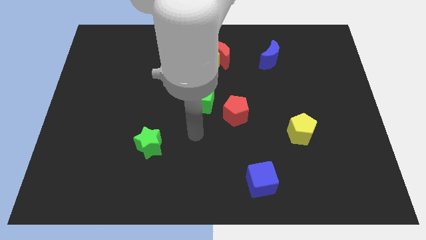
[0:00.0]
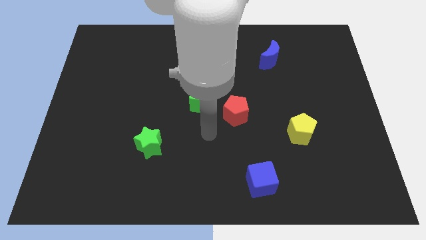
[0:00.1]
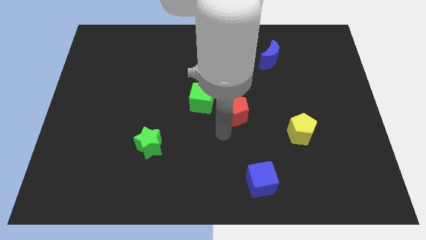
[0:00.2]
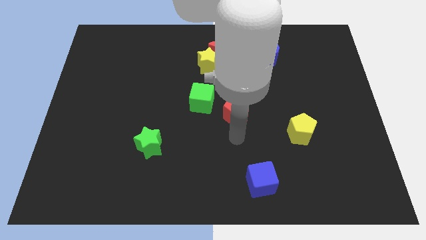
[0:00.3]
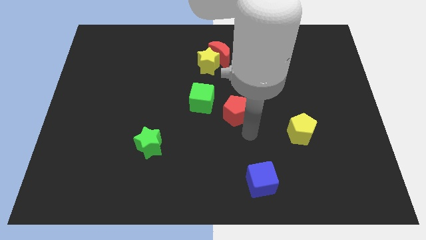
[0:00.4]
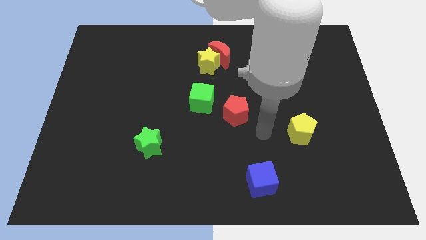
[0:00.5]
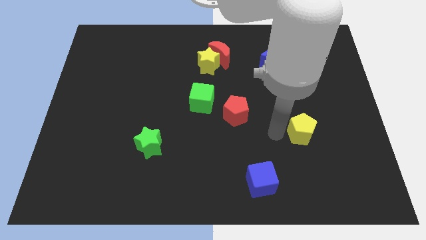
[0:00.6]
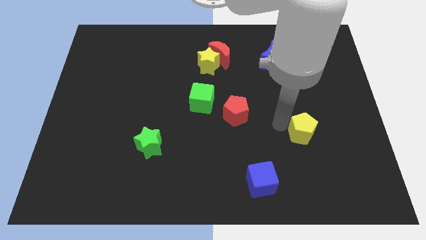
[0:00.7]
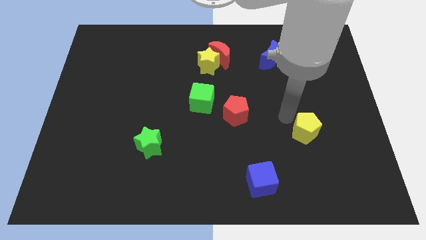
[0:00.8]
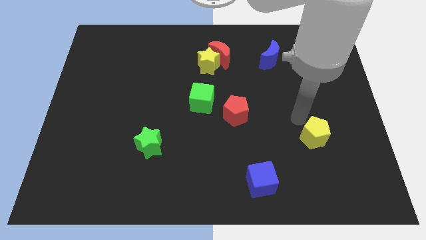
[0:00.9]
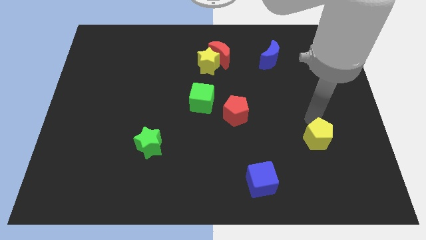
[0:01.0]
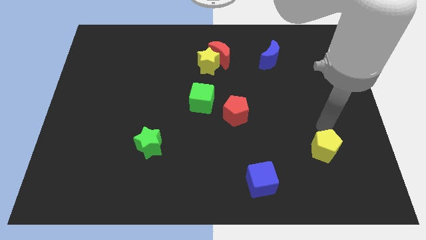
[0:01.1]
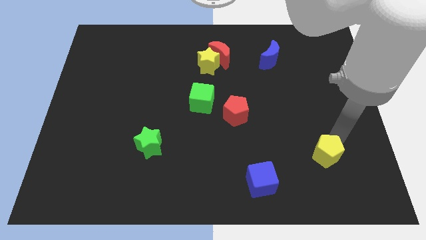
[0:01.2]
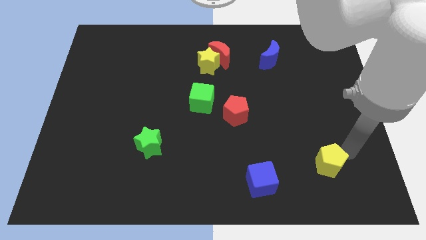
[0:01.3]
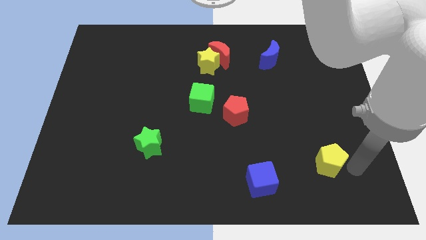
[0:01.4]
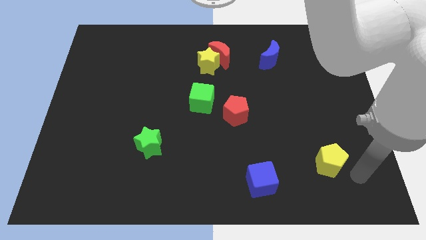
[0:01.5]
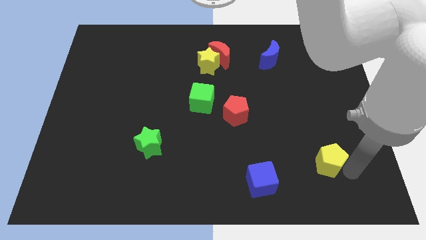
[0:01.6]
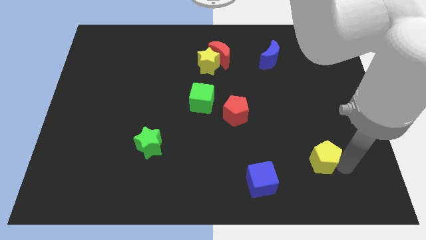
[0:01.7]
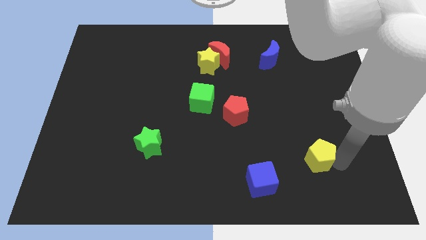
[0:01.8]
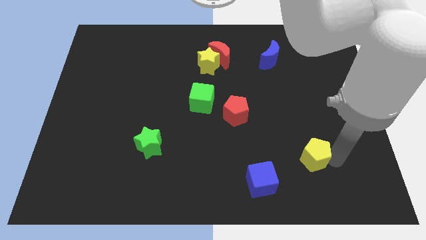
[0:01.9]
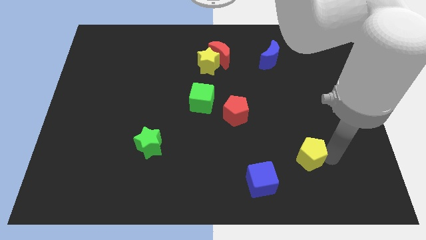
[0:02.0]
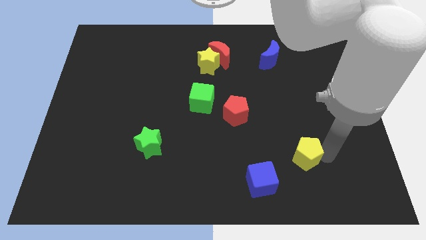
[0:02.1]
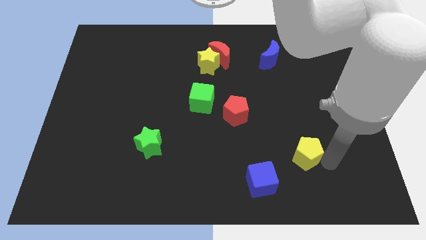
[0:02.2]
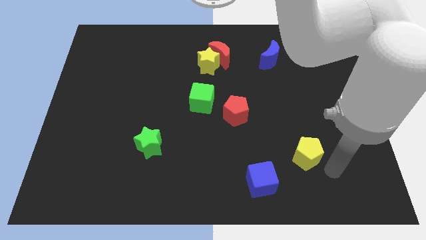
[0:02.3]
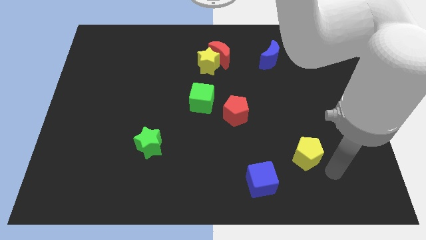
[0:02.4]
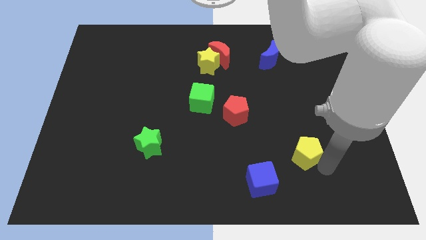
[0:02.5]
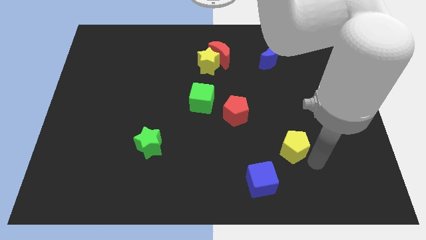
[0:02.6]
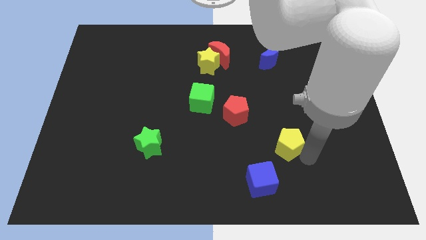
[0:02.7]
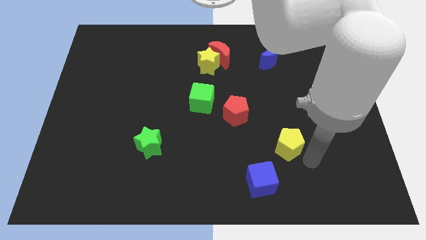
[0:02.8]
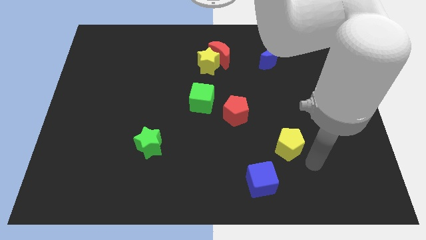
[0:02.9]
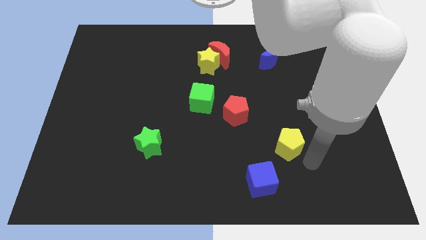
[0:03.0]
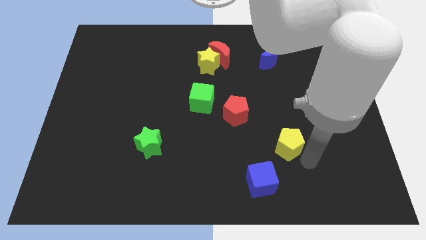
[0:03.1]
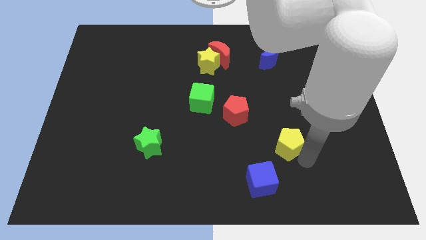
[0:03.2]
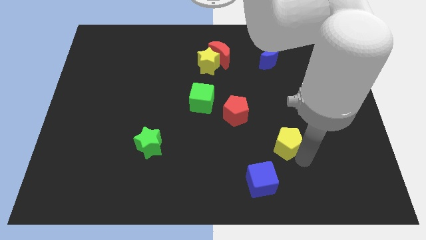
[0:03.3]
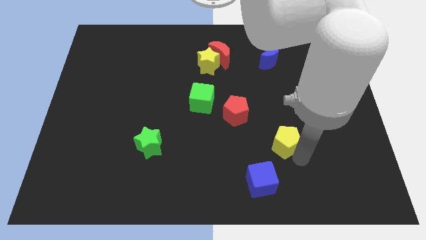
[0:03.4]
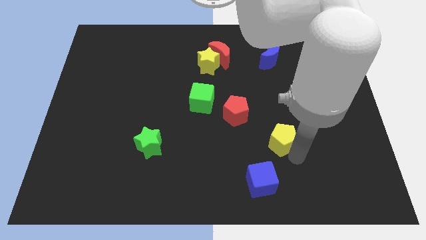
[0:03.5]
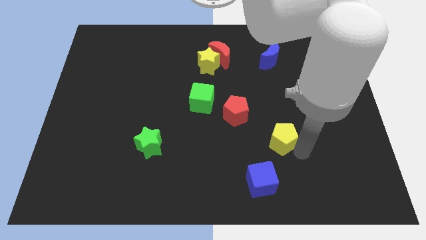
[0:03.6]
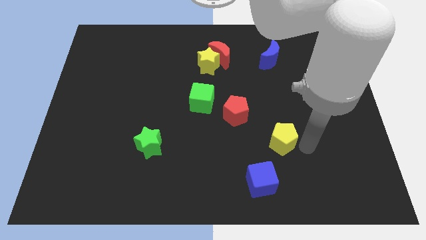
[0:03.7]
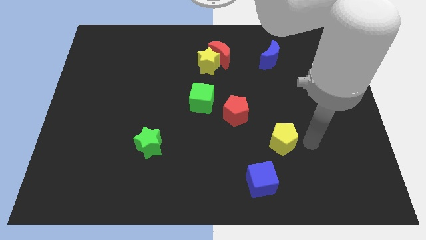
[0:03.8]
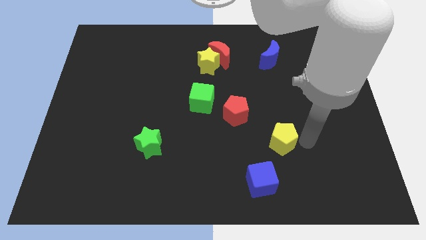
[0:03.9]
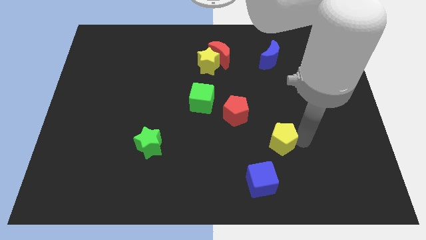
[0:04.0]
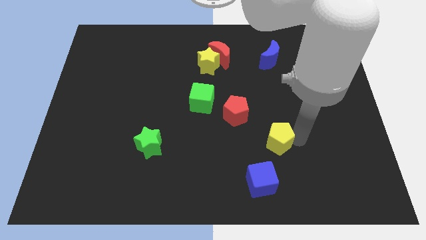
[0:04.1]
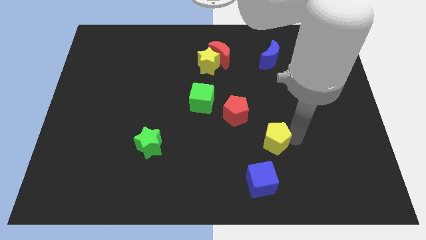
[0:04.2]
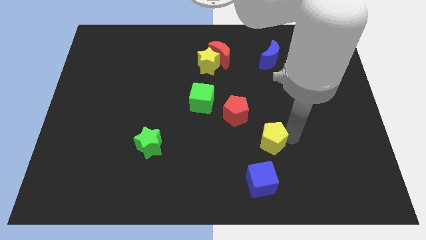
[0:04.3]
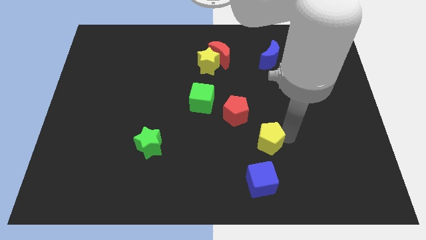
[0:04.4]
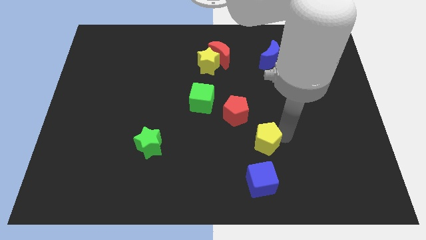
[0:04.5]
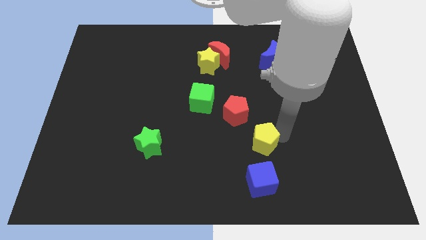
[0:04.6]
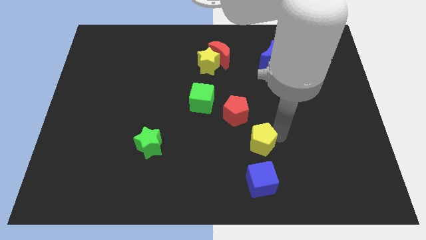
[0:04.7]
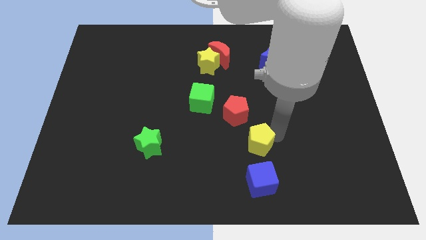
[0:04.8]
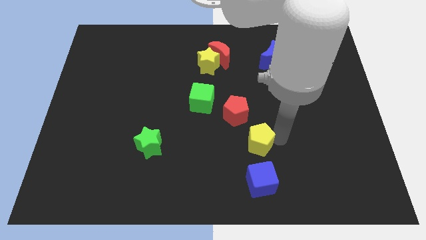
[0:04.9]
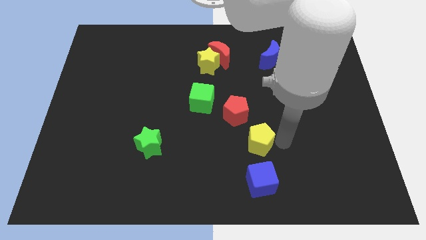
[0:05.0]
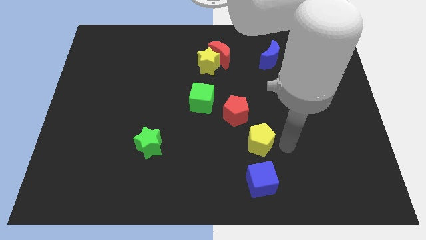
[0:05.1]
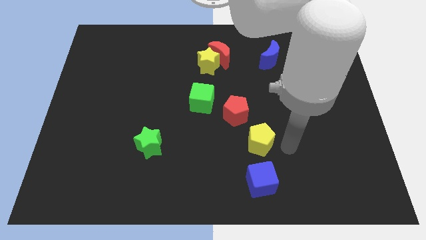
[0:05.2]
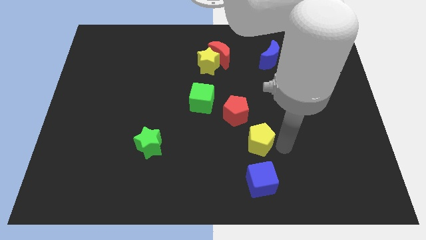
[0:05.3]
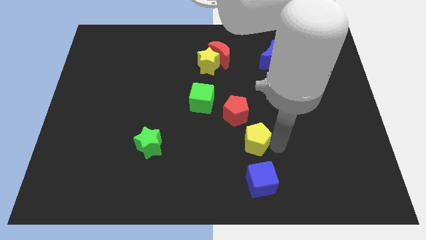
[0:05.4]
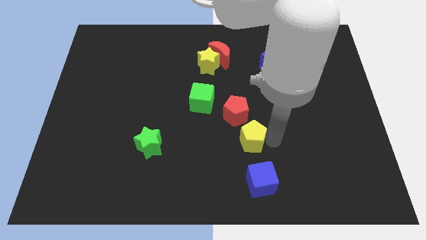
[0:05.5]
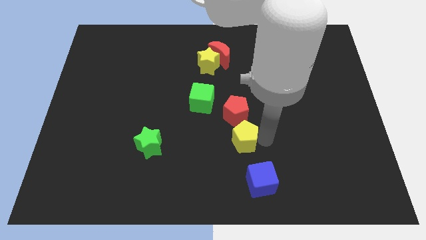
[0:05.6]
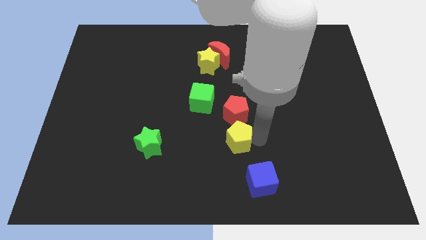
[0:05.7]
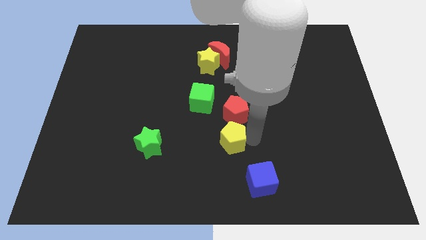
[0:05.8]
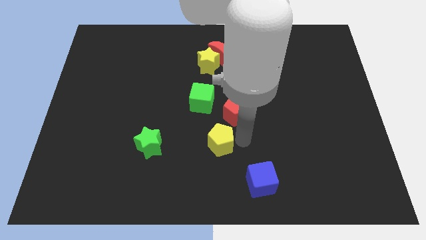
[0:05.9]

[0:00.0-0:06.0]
push the yellow pentagon just right of the green star
